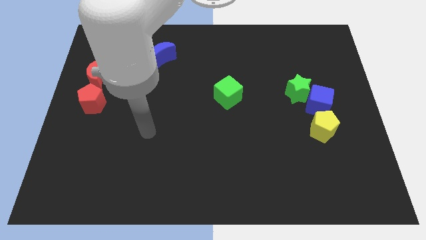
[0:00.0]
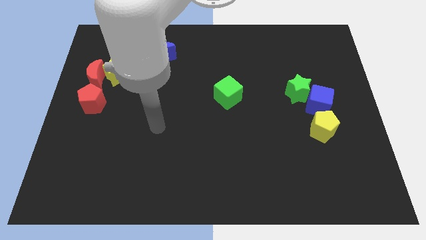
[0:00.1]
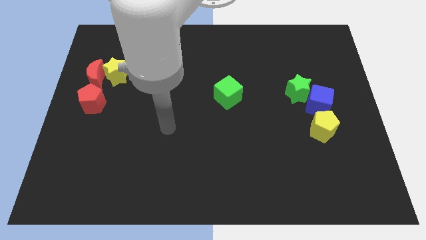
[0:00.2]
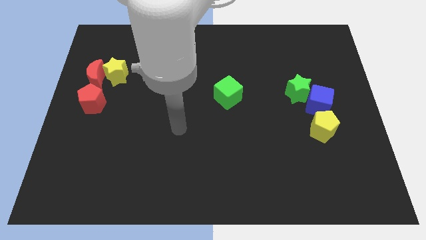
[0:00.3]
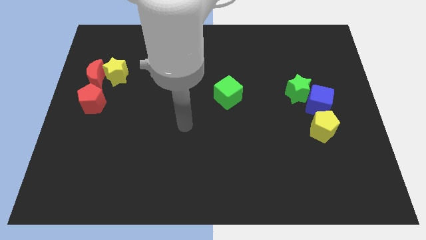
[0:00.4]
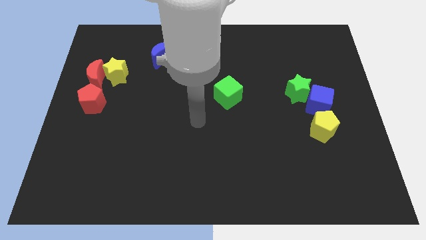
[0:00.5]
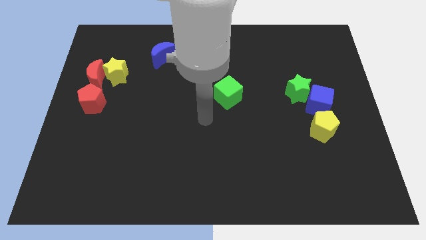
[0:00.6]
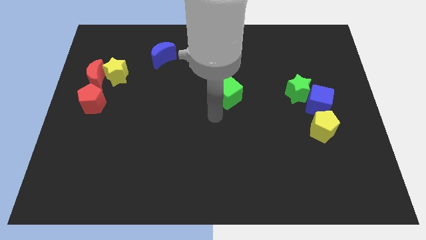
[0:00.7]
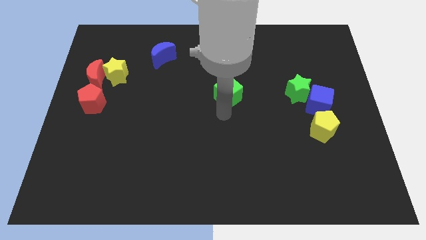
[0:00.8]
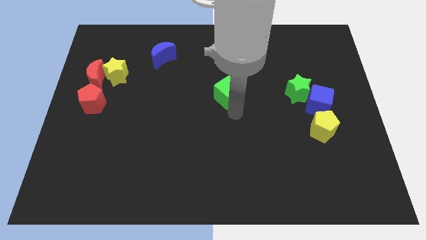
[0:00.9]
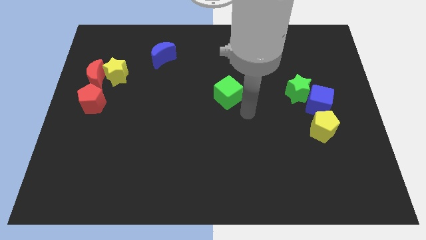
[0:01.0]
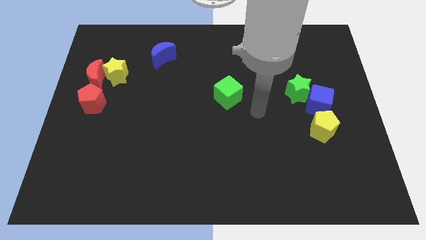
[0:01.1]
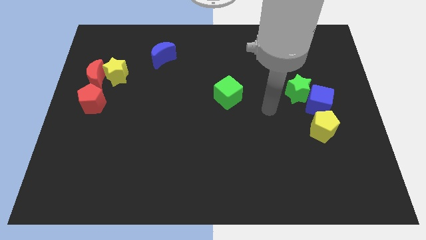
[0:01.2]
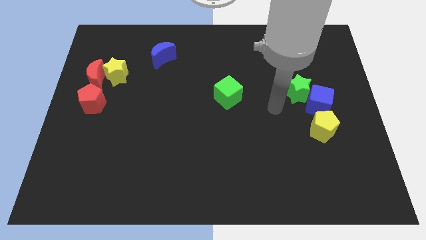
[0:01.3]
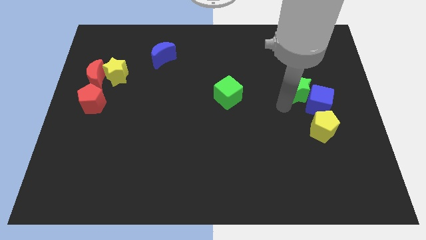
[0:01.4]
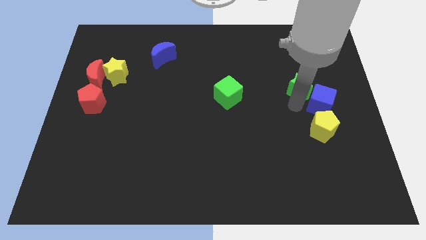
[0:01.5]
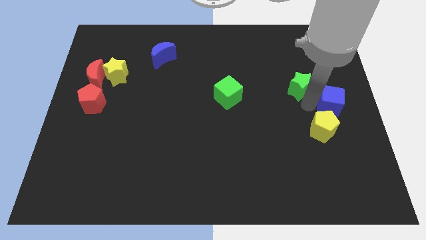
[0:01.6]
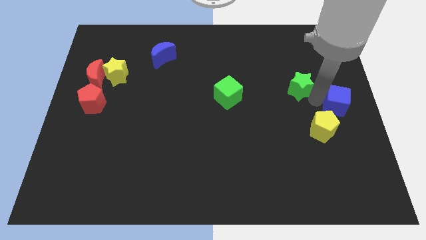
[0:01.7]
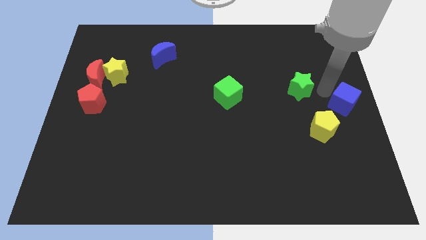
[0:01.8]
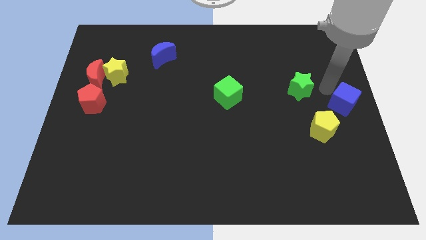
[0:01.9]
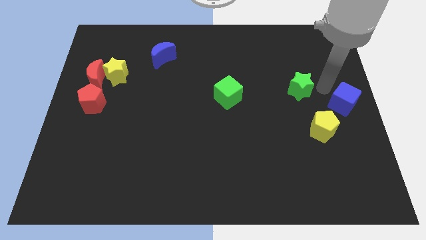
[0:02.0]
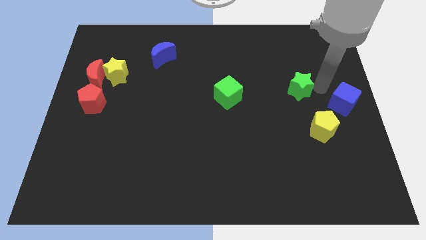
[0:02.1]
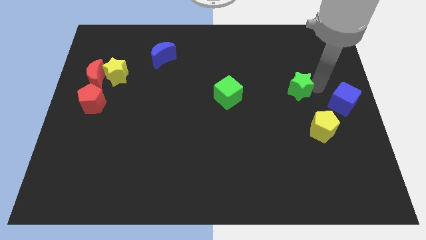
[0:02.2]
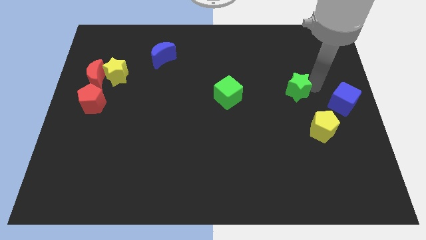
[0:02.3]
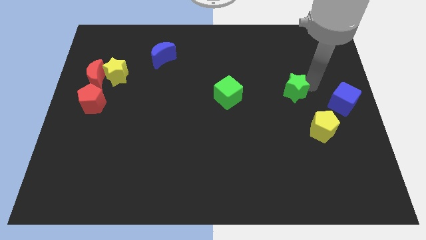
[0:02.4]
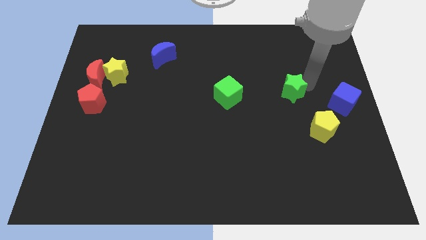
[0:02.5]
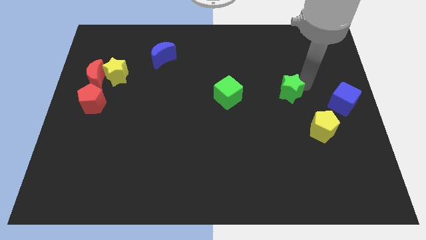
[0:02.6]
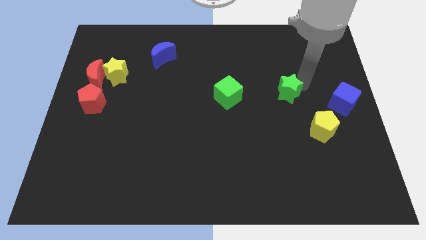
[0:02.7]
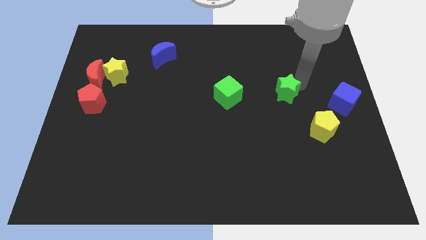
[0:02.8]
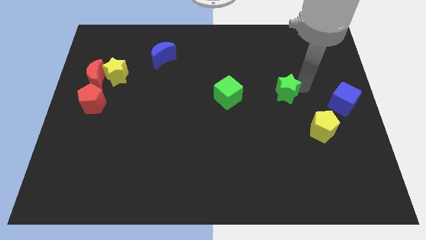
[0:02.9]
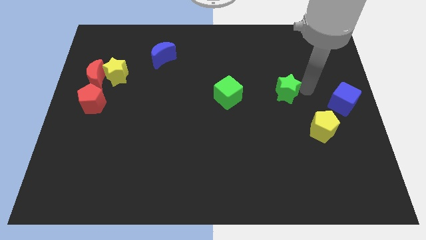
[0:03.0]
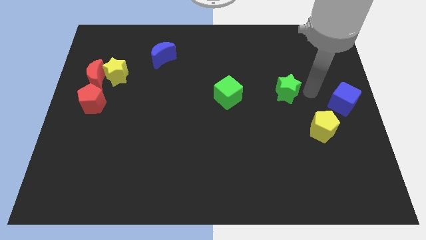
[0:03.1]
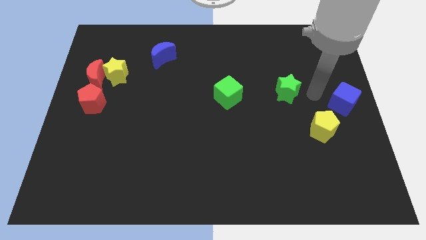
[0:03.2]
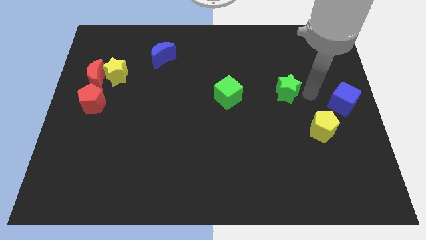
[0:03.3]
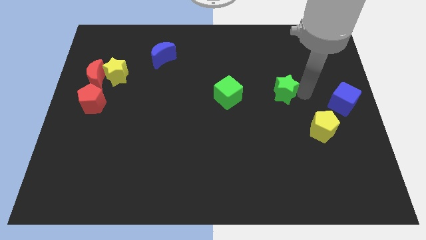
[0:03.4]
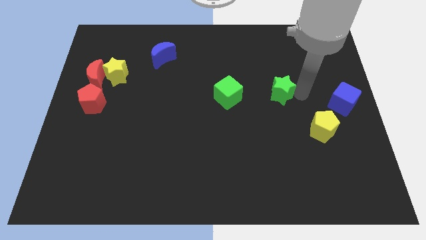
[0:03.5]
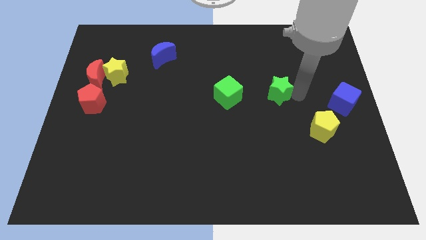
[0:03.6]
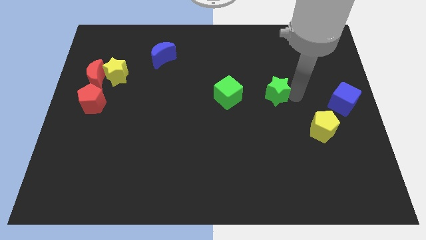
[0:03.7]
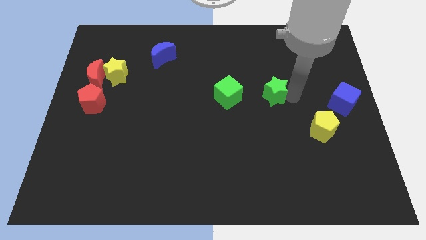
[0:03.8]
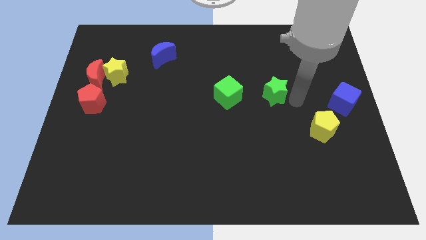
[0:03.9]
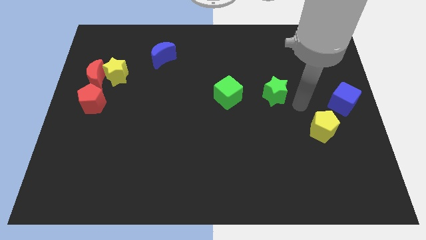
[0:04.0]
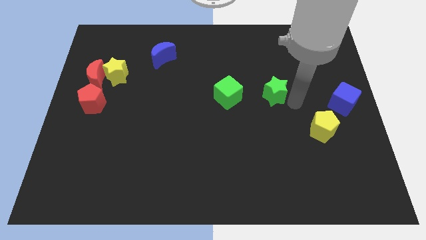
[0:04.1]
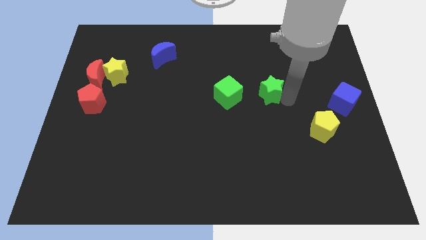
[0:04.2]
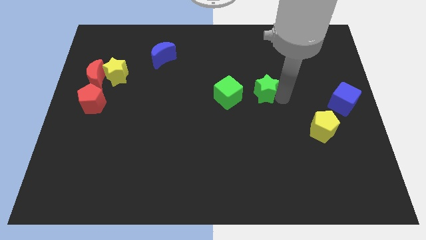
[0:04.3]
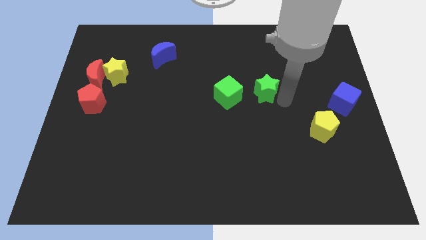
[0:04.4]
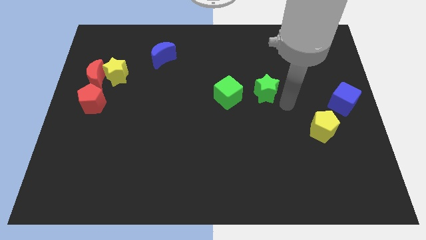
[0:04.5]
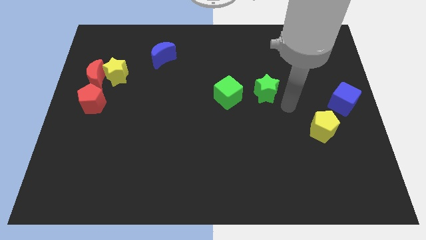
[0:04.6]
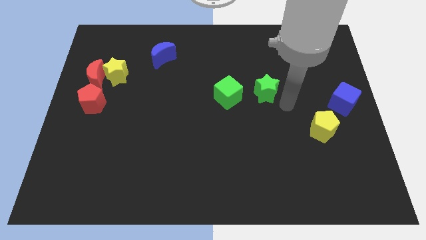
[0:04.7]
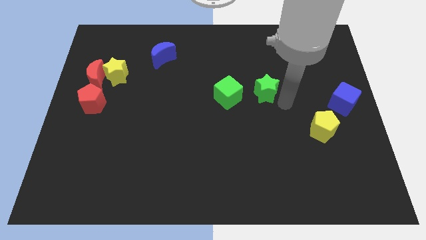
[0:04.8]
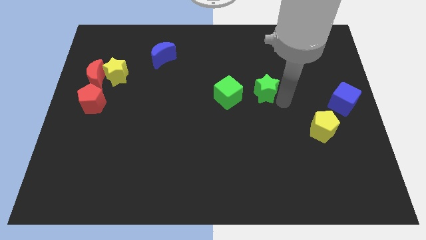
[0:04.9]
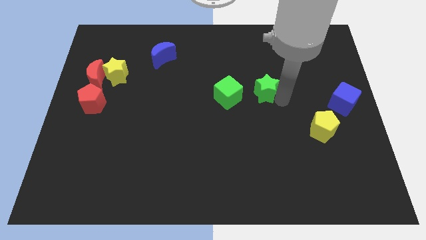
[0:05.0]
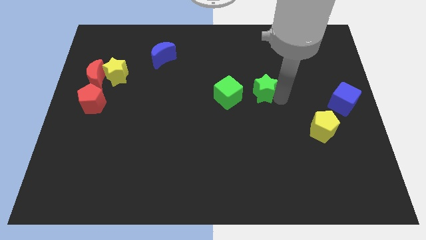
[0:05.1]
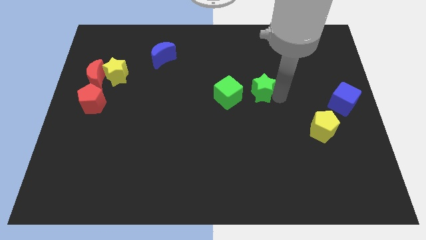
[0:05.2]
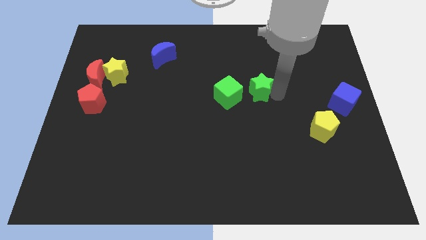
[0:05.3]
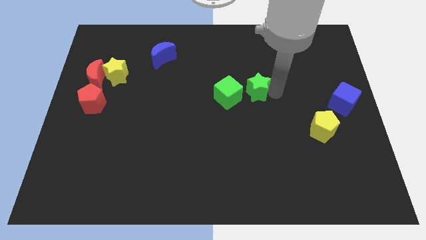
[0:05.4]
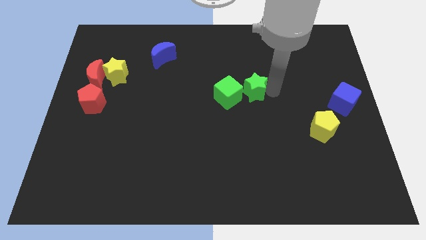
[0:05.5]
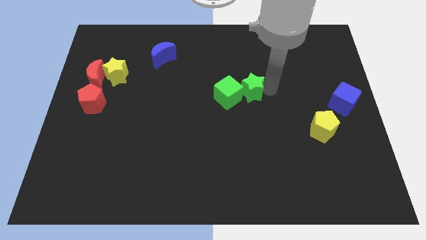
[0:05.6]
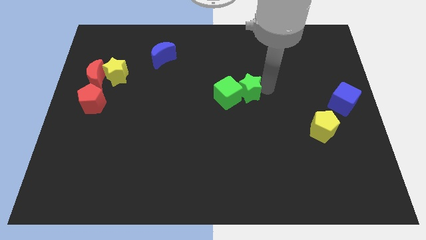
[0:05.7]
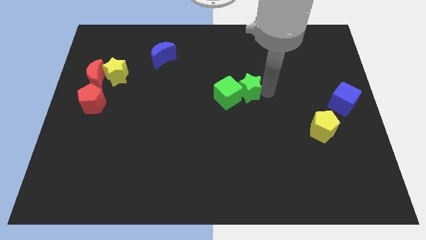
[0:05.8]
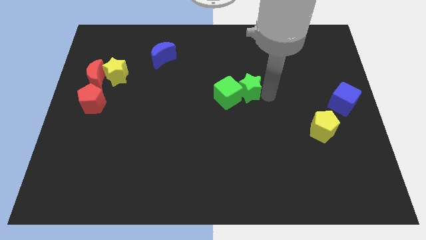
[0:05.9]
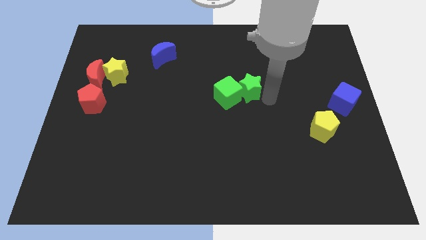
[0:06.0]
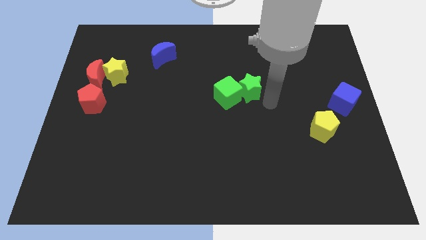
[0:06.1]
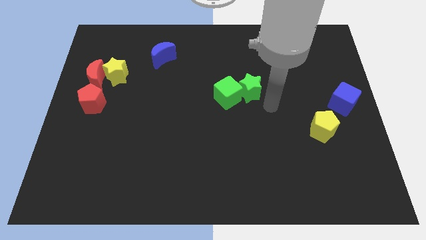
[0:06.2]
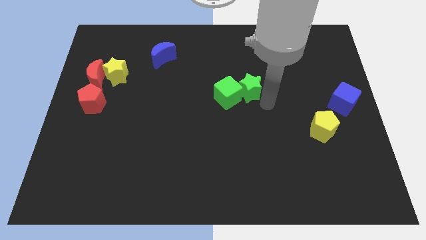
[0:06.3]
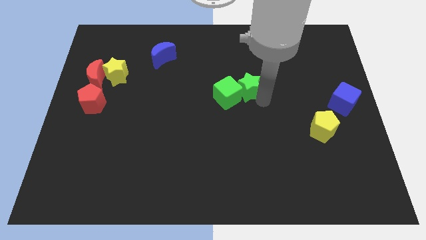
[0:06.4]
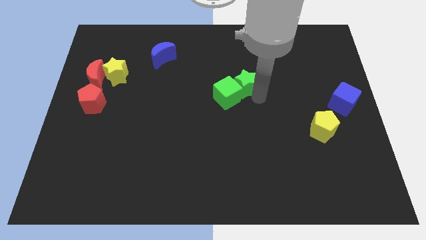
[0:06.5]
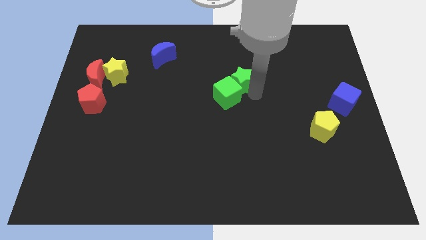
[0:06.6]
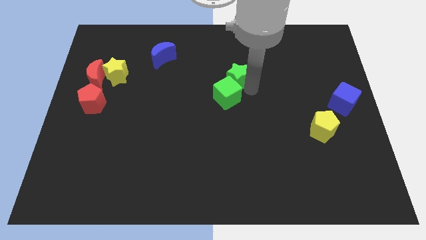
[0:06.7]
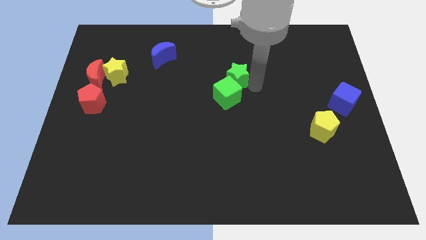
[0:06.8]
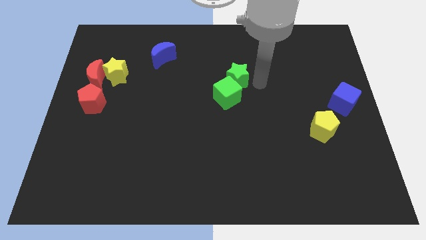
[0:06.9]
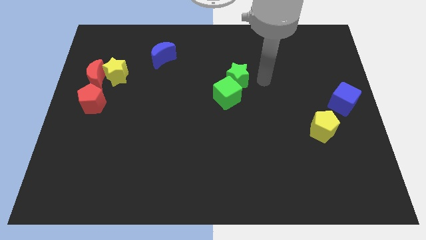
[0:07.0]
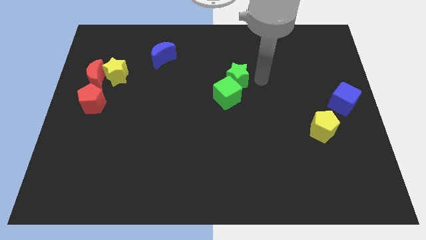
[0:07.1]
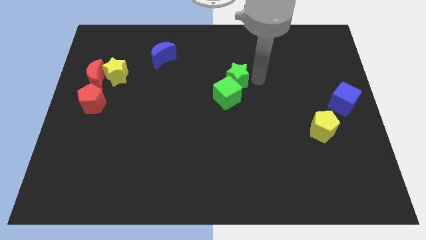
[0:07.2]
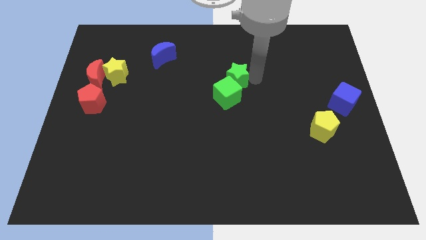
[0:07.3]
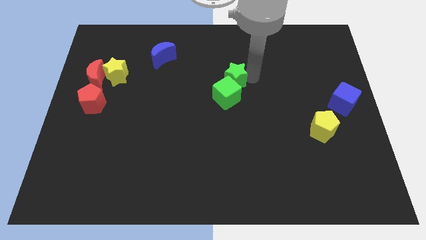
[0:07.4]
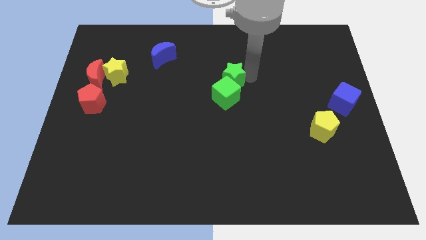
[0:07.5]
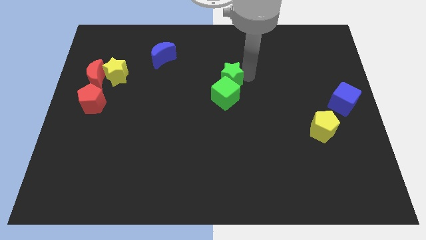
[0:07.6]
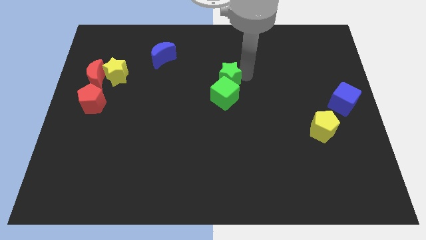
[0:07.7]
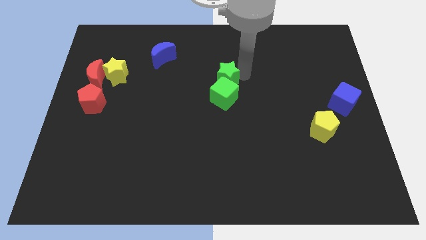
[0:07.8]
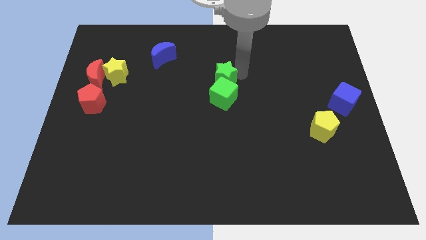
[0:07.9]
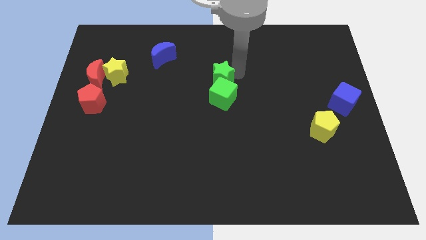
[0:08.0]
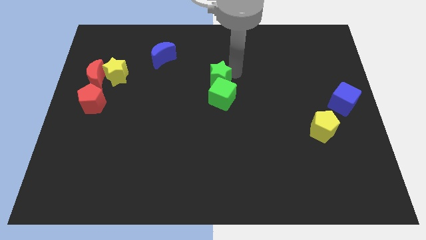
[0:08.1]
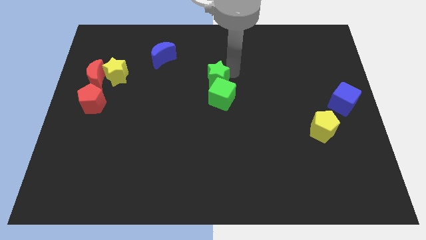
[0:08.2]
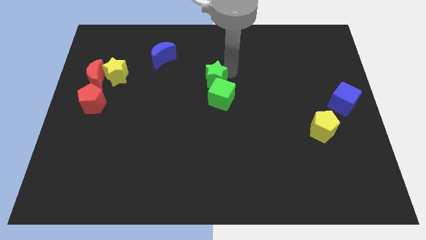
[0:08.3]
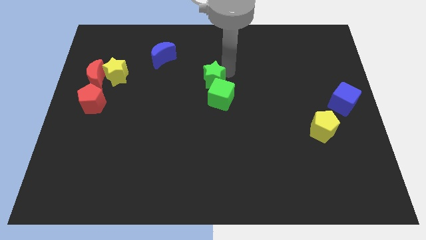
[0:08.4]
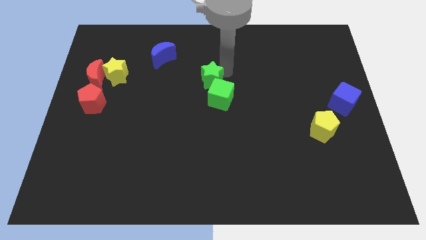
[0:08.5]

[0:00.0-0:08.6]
push the green star to the left
